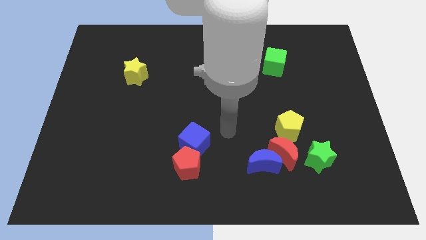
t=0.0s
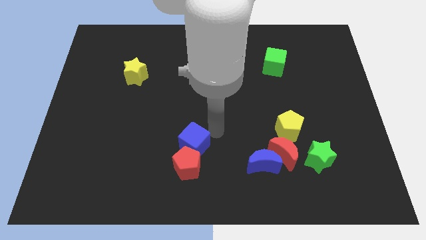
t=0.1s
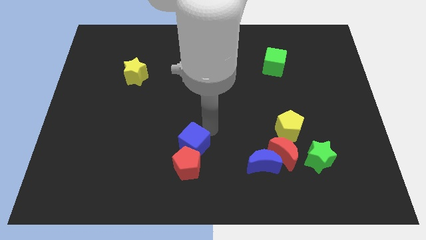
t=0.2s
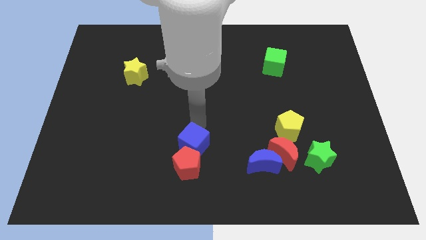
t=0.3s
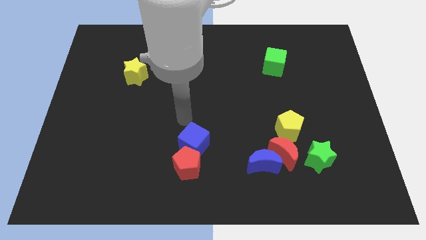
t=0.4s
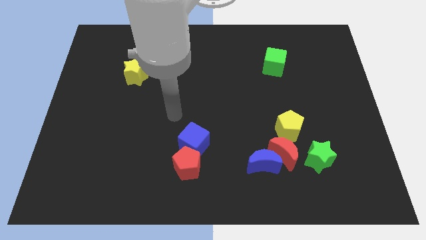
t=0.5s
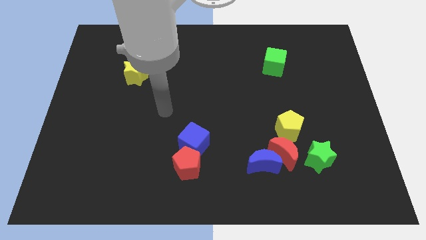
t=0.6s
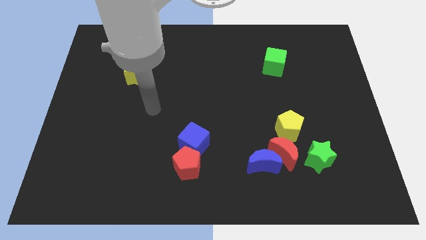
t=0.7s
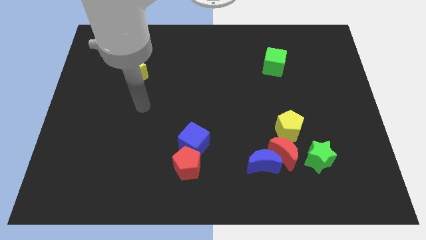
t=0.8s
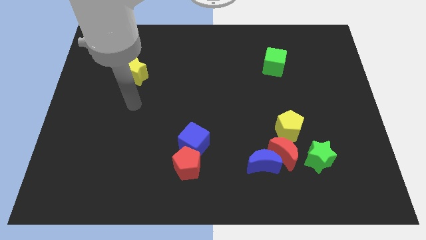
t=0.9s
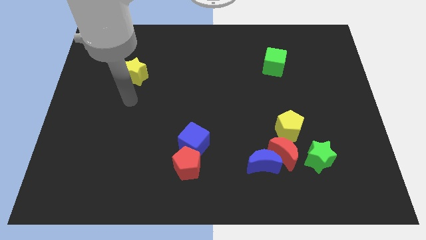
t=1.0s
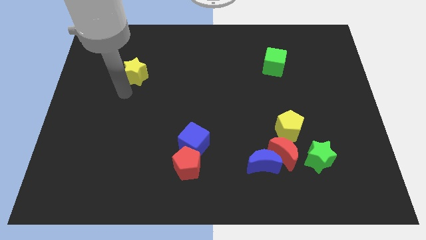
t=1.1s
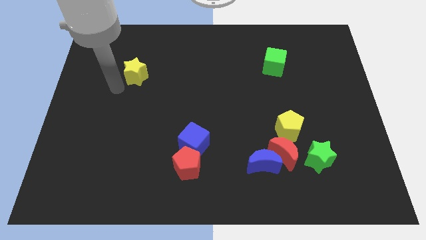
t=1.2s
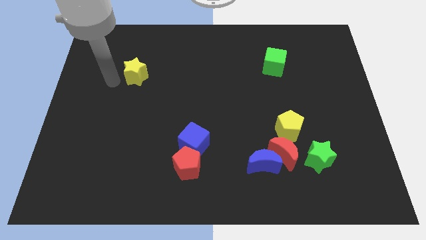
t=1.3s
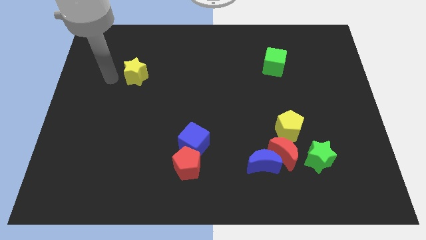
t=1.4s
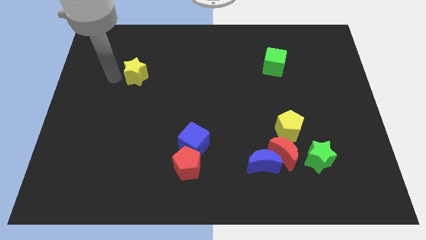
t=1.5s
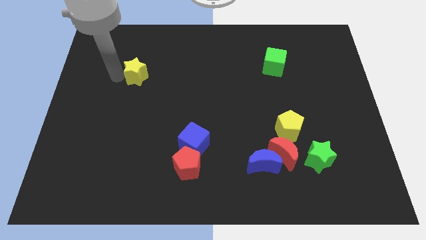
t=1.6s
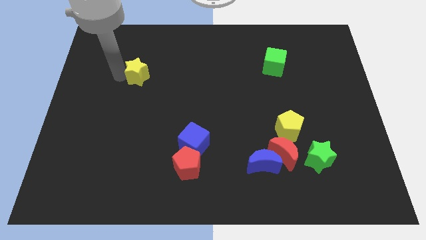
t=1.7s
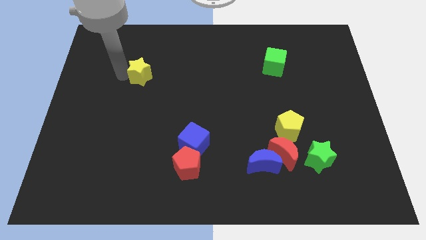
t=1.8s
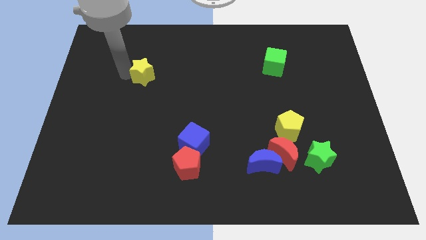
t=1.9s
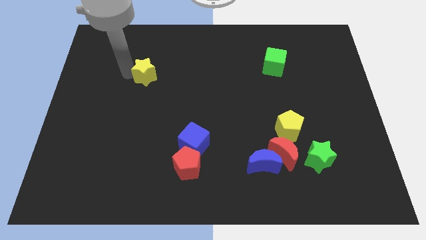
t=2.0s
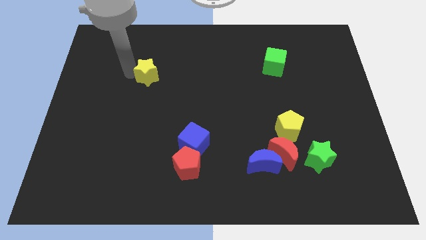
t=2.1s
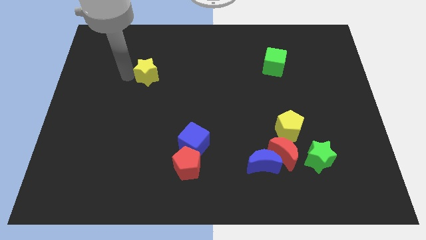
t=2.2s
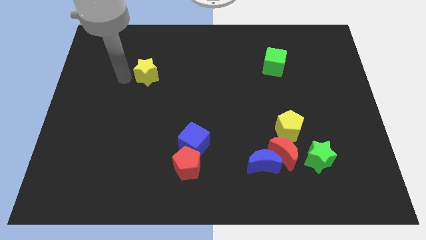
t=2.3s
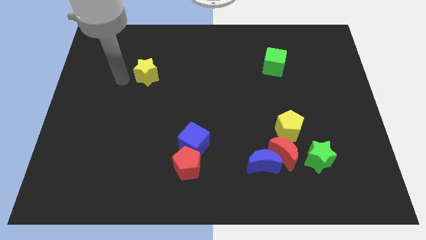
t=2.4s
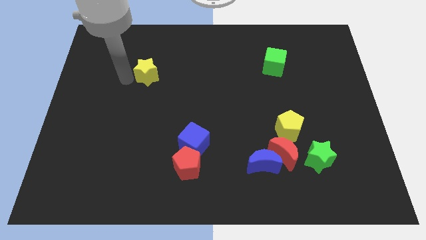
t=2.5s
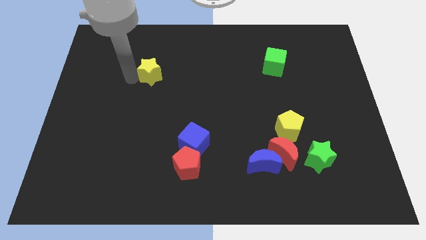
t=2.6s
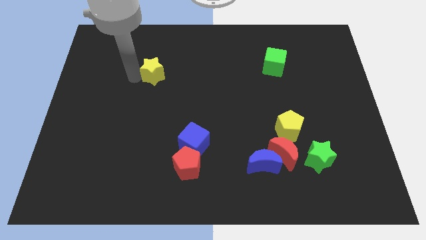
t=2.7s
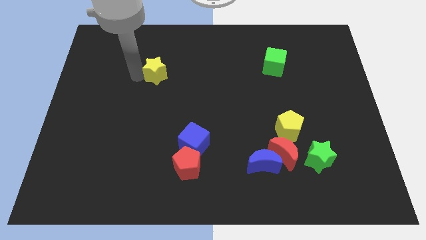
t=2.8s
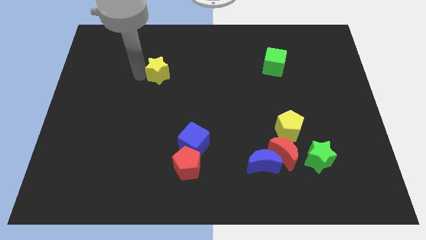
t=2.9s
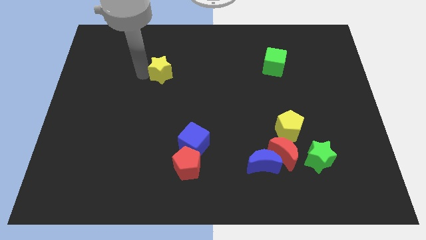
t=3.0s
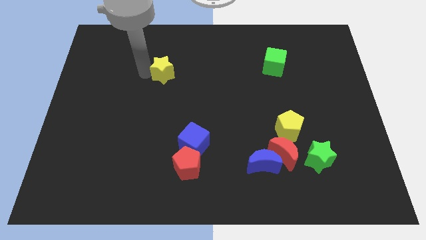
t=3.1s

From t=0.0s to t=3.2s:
push the yellow star right a little

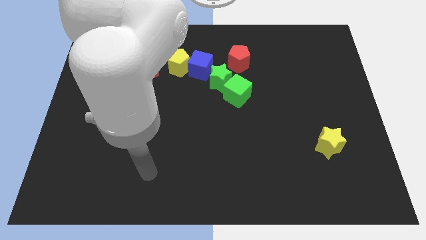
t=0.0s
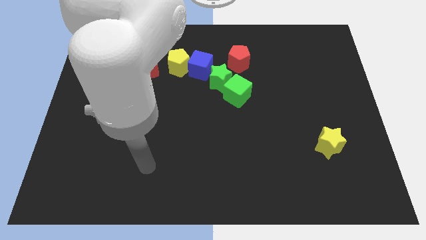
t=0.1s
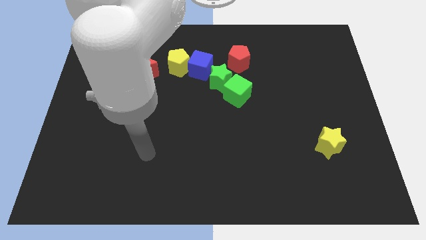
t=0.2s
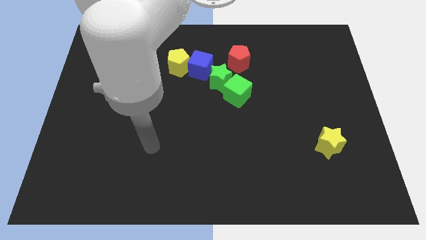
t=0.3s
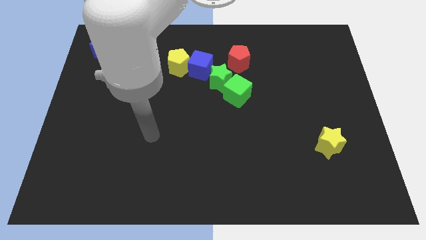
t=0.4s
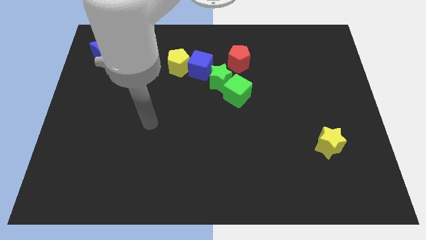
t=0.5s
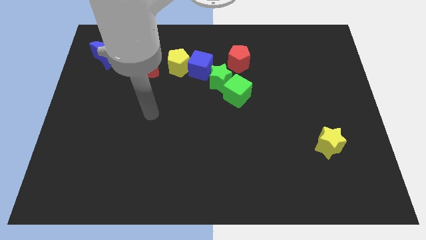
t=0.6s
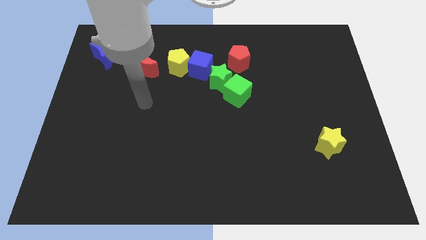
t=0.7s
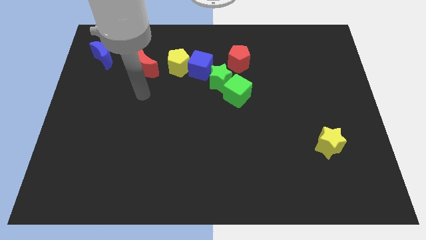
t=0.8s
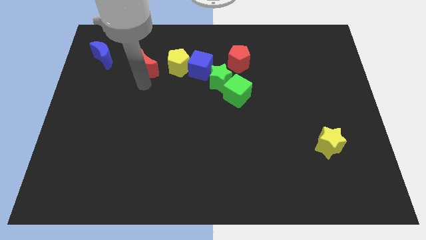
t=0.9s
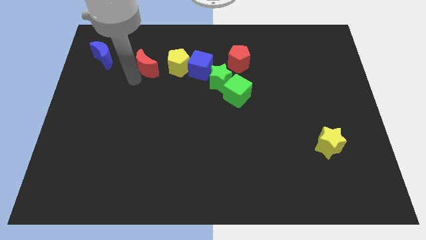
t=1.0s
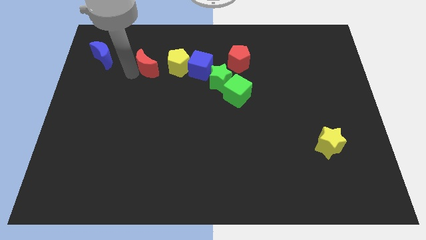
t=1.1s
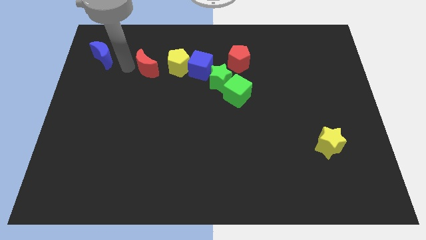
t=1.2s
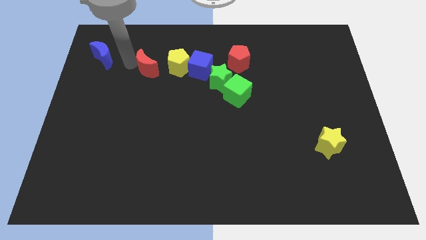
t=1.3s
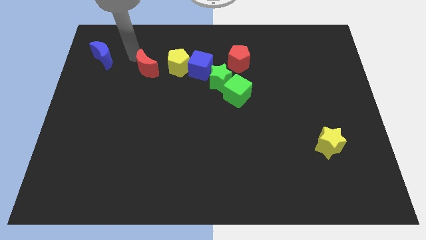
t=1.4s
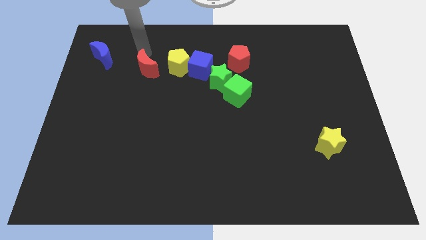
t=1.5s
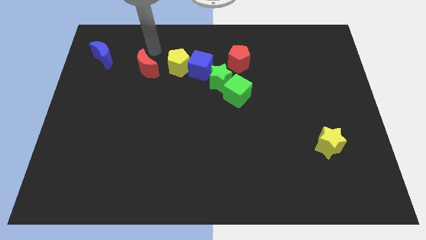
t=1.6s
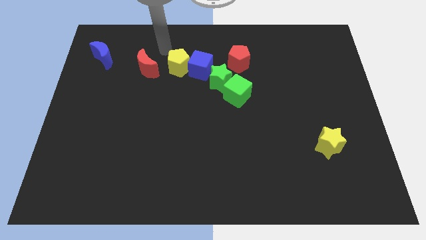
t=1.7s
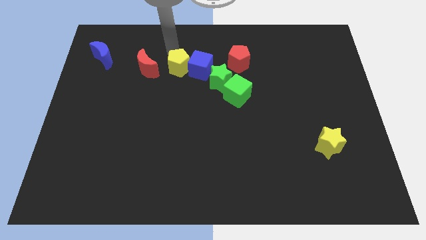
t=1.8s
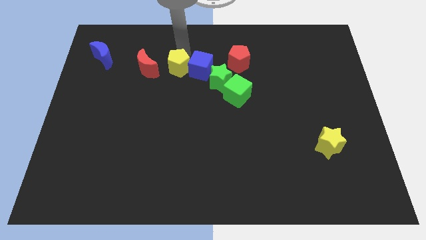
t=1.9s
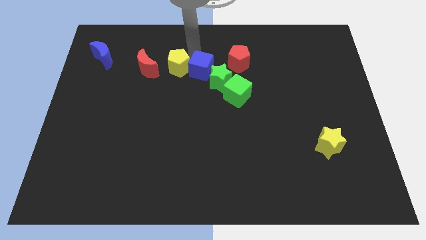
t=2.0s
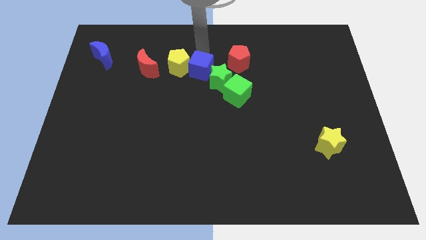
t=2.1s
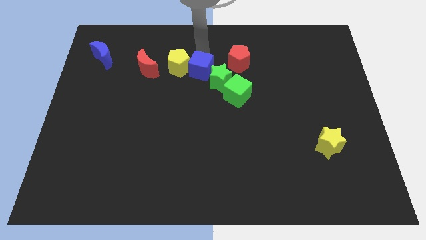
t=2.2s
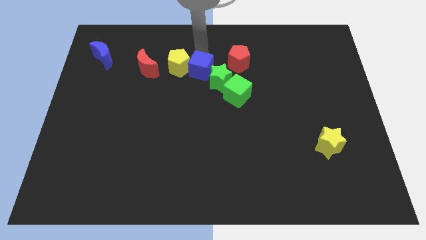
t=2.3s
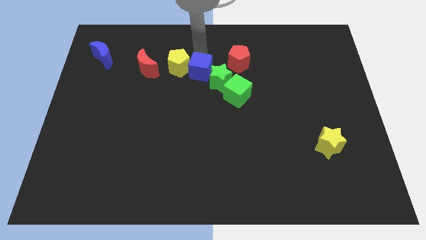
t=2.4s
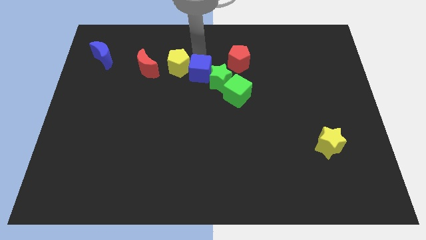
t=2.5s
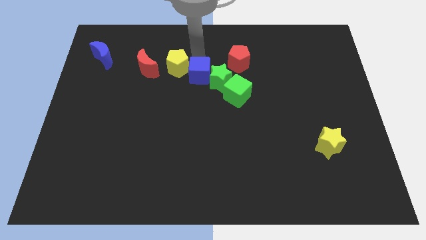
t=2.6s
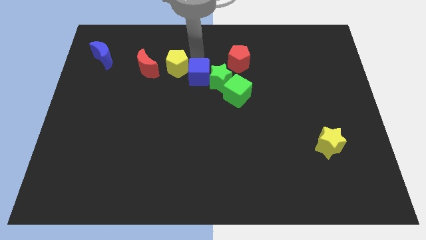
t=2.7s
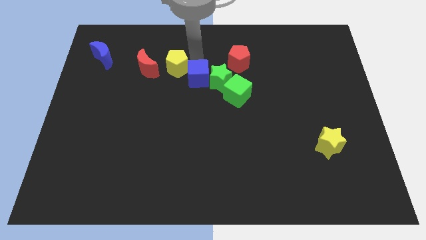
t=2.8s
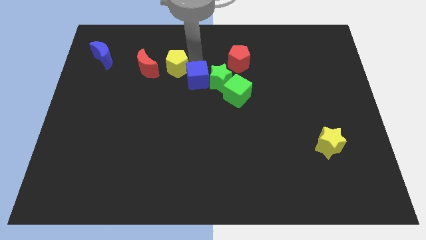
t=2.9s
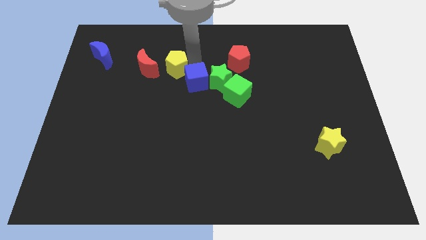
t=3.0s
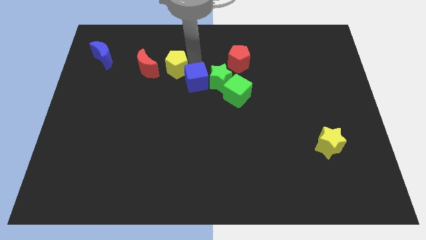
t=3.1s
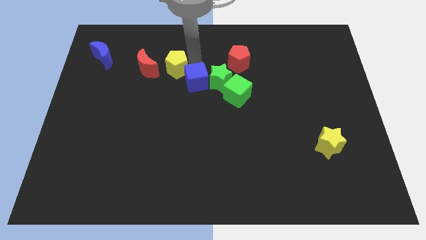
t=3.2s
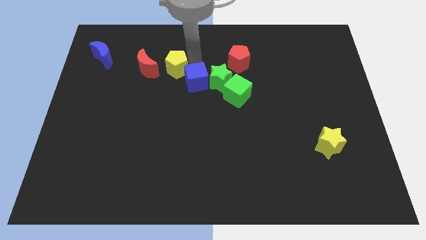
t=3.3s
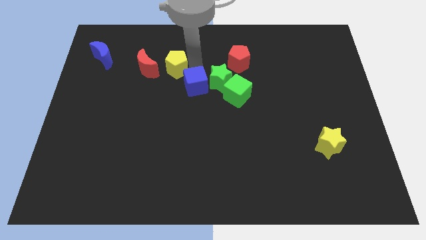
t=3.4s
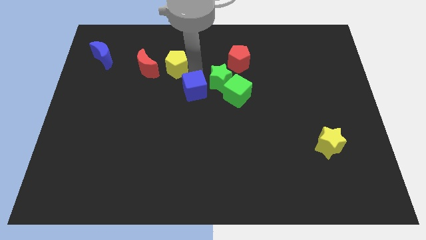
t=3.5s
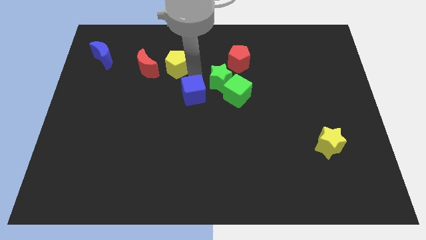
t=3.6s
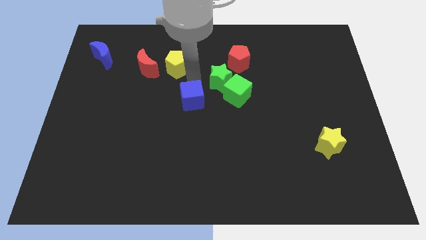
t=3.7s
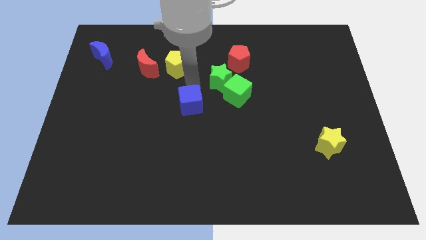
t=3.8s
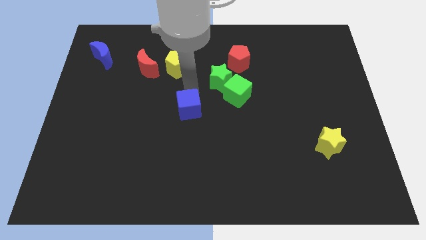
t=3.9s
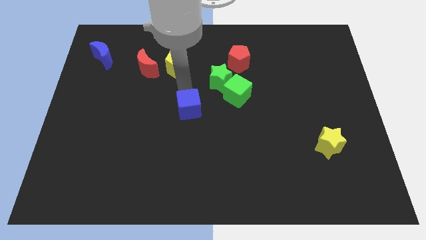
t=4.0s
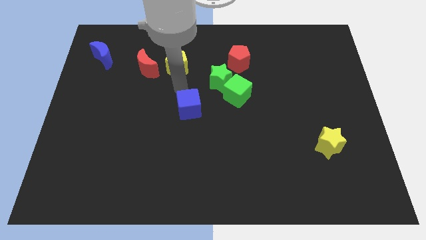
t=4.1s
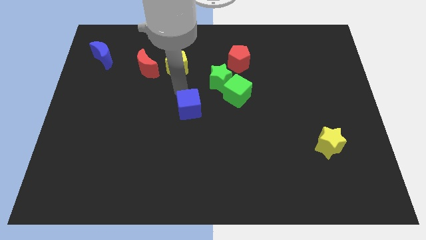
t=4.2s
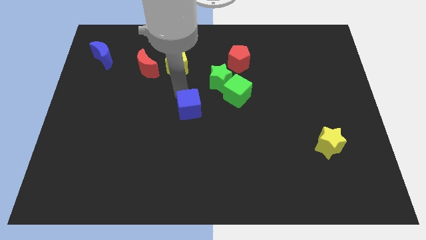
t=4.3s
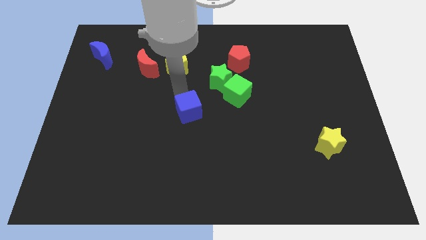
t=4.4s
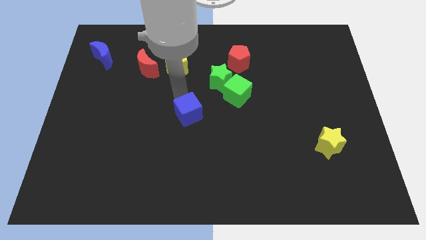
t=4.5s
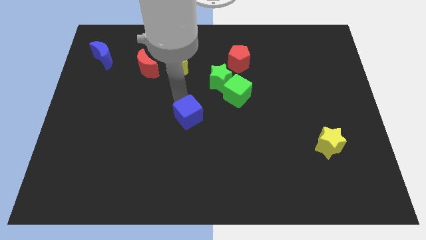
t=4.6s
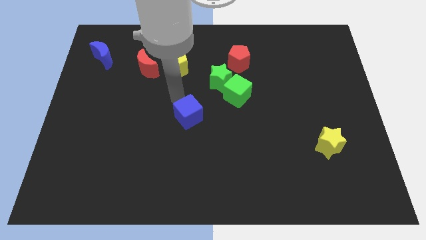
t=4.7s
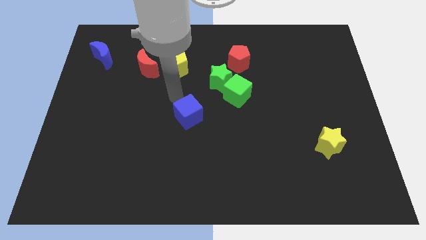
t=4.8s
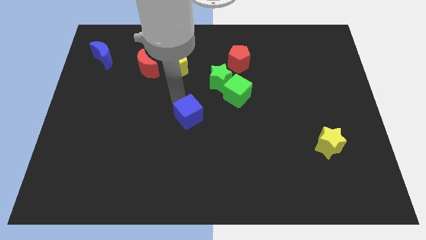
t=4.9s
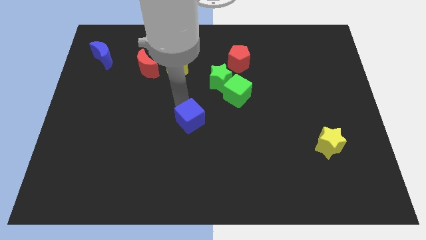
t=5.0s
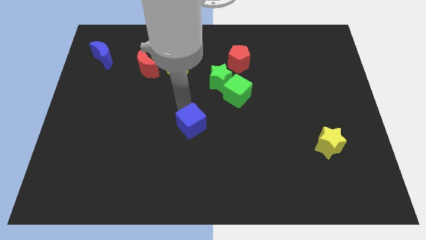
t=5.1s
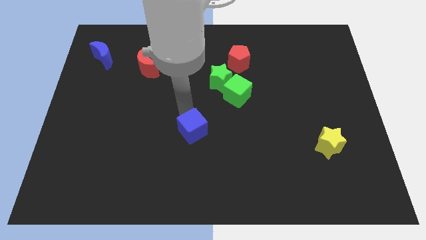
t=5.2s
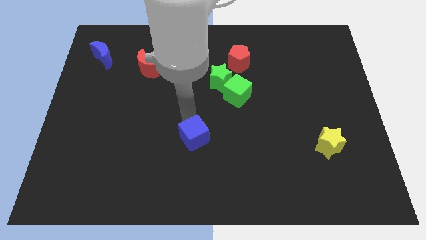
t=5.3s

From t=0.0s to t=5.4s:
push the blue cube downwards
